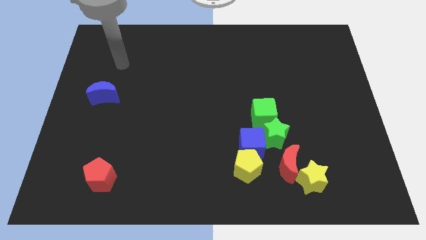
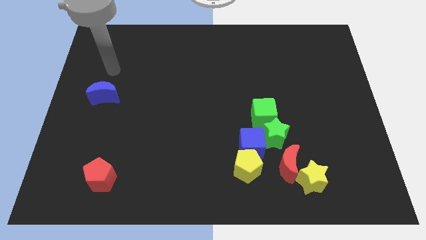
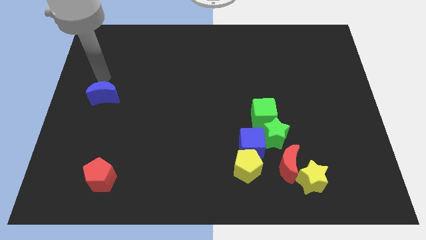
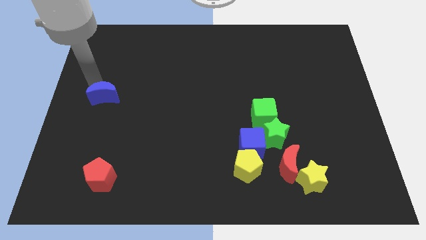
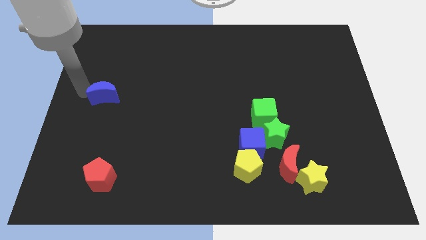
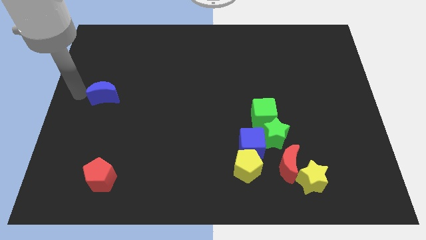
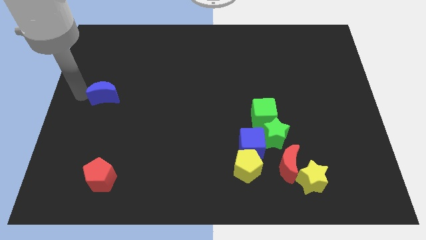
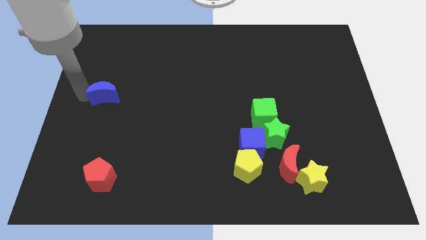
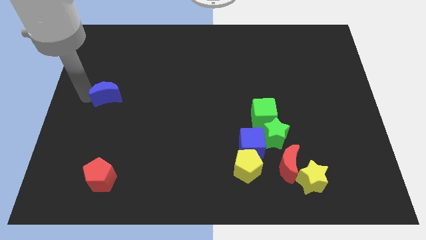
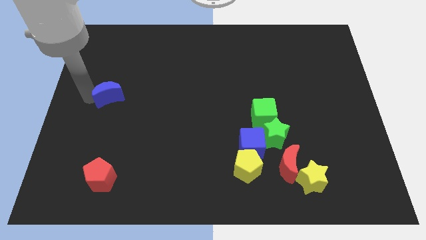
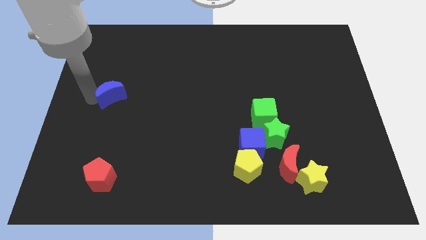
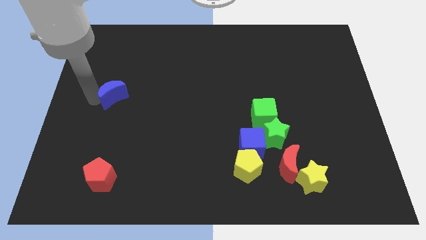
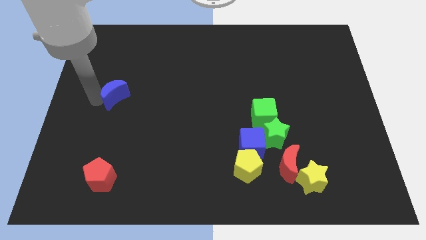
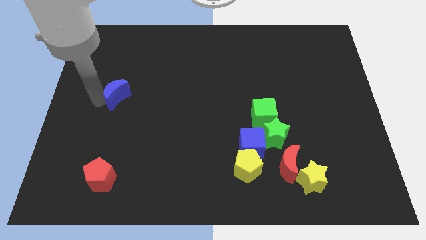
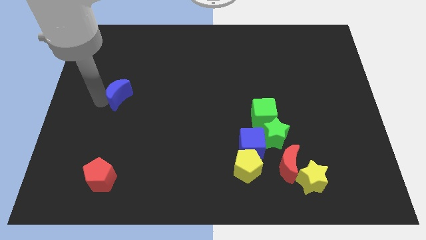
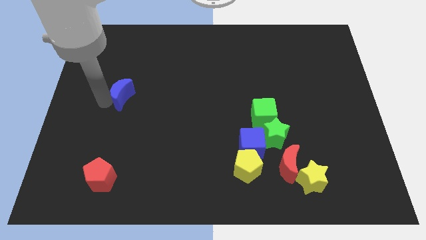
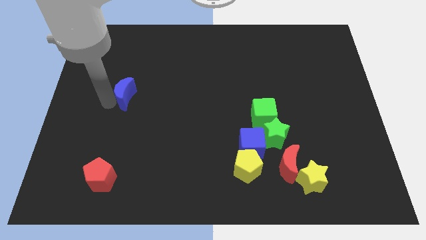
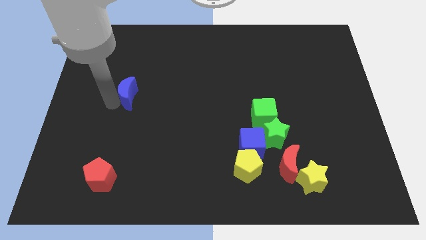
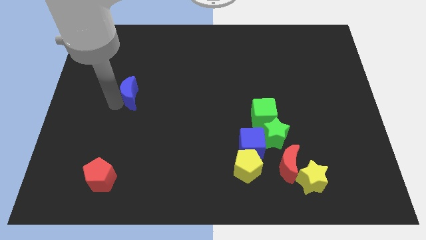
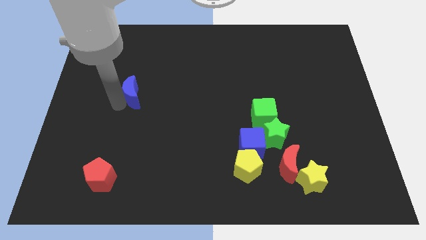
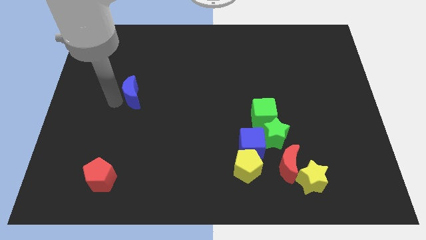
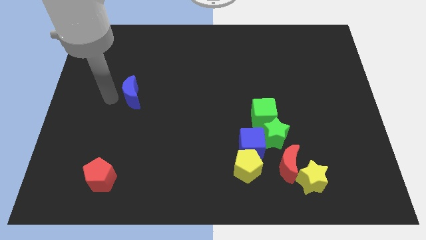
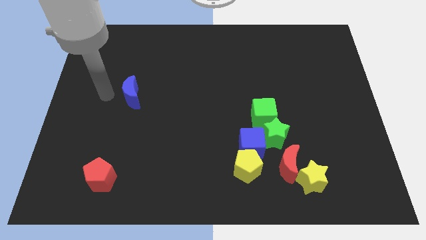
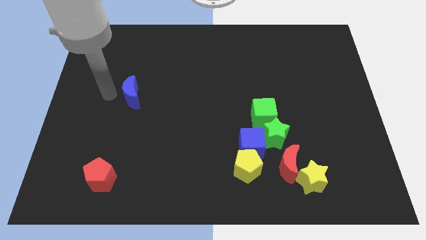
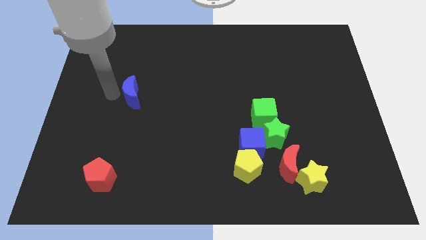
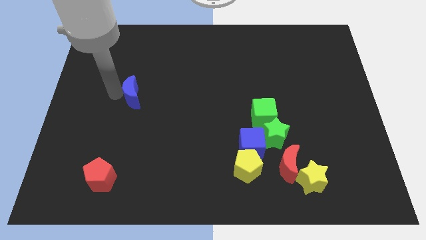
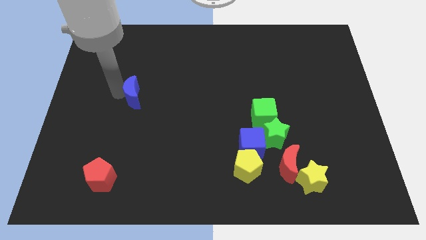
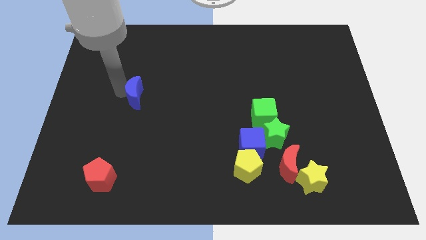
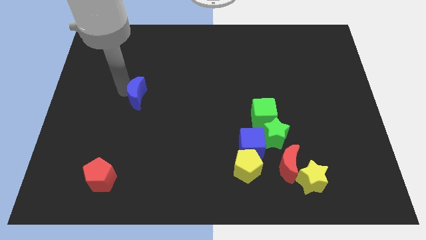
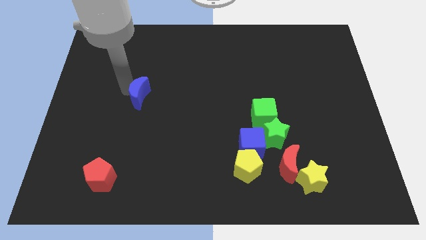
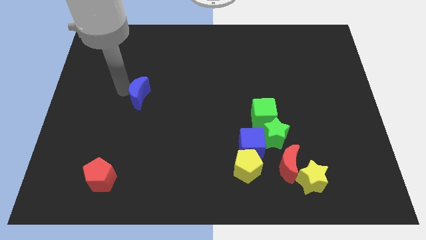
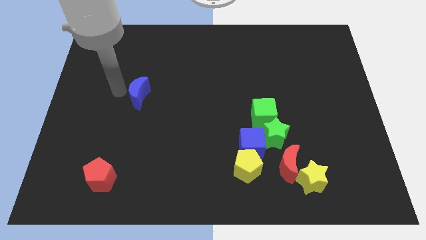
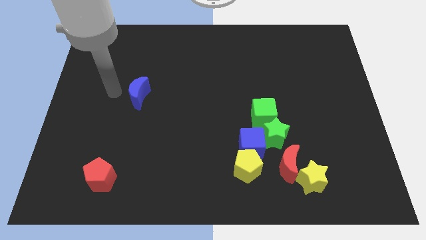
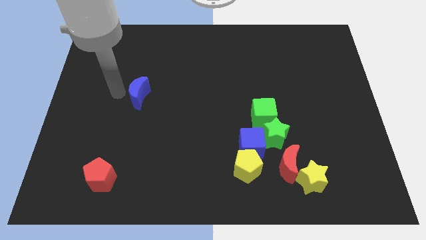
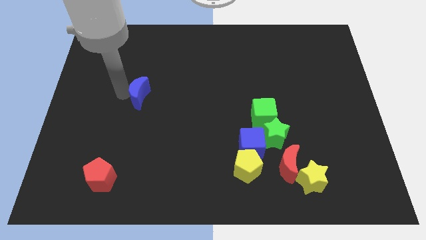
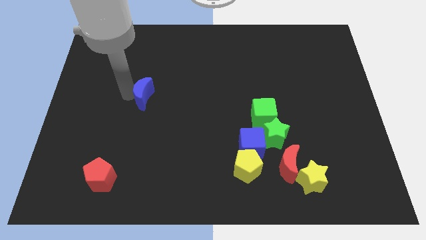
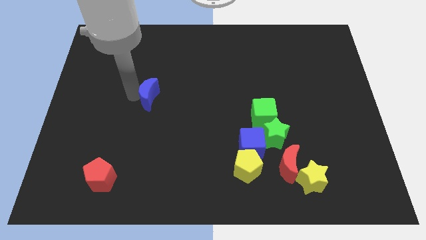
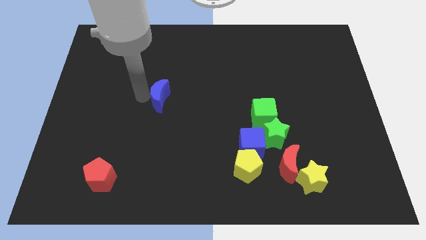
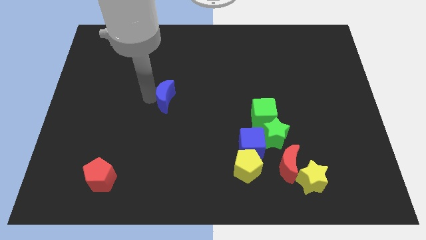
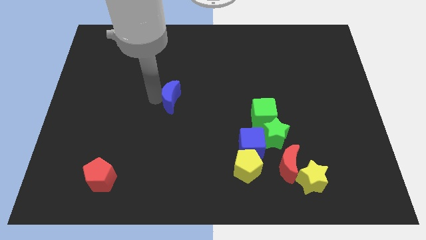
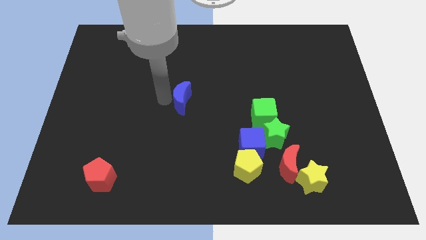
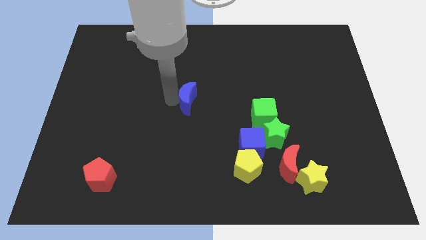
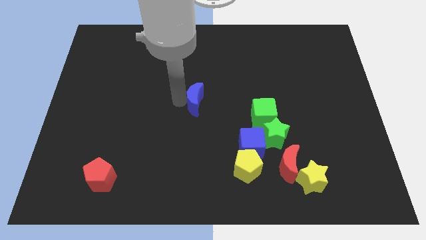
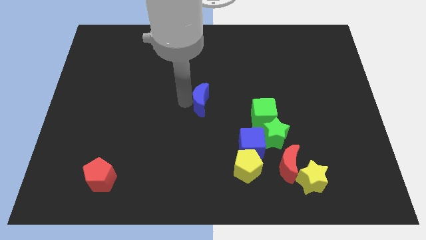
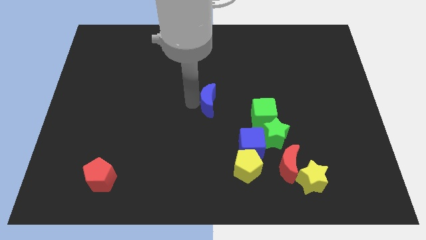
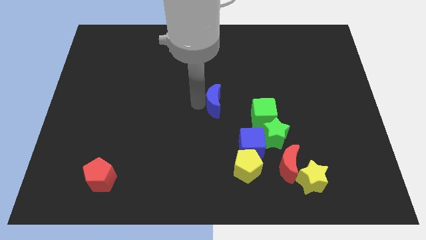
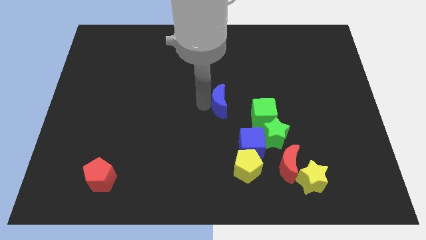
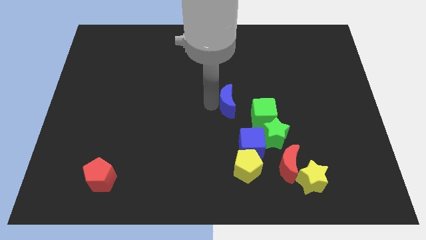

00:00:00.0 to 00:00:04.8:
put the blue moon to the top of the blue cube

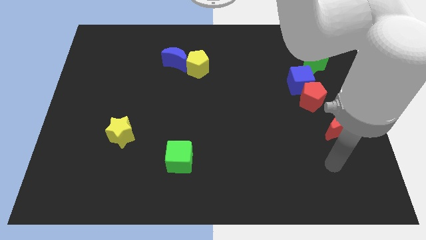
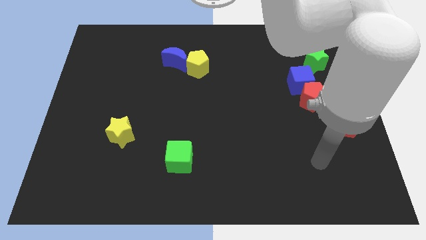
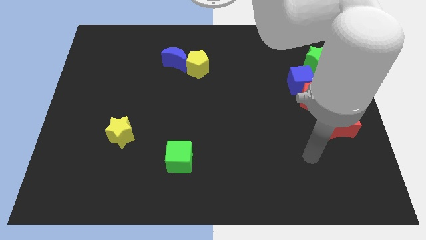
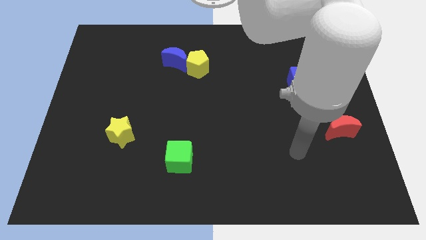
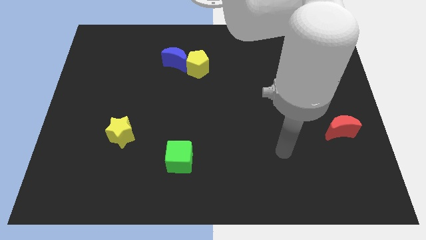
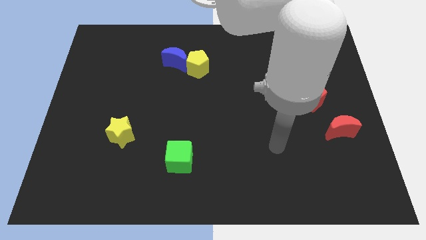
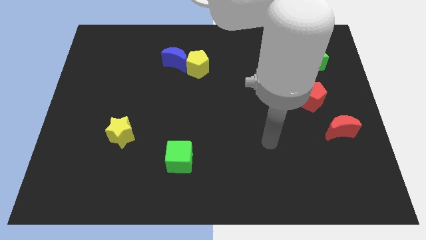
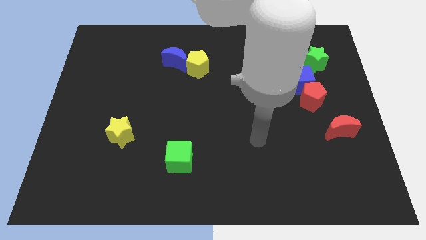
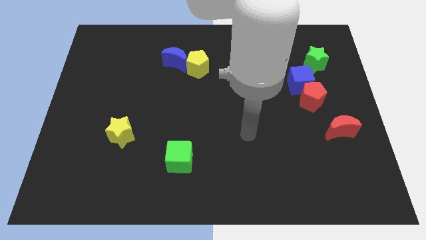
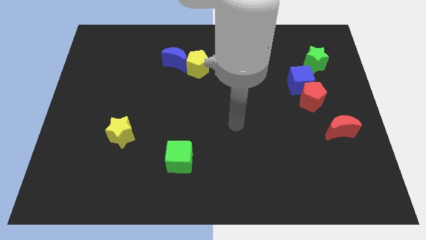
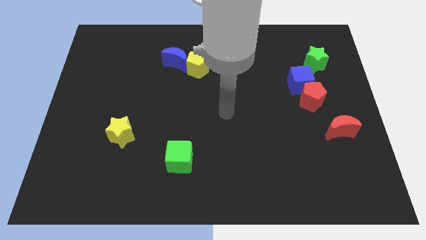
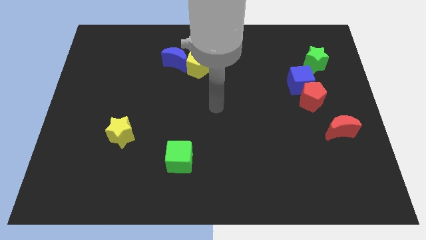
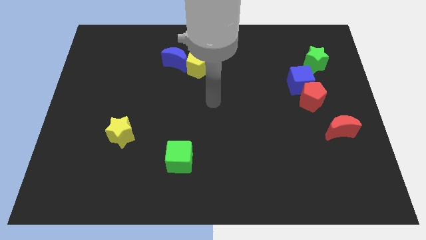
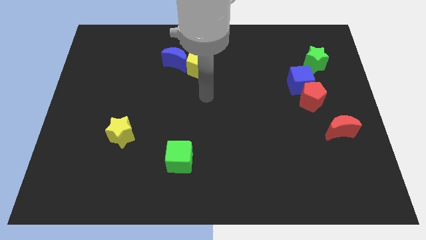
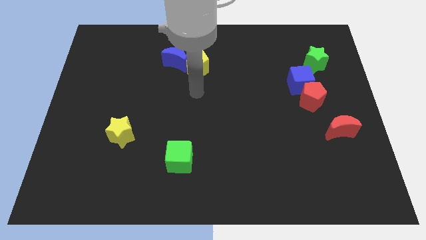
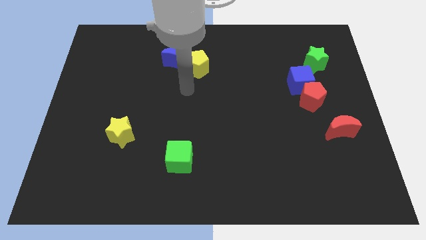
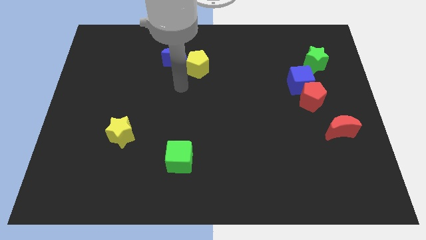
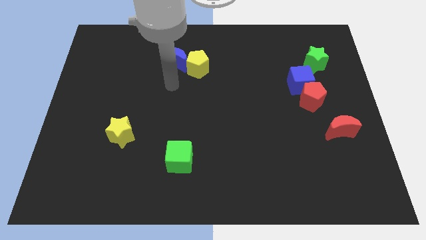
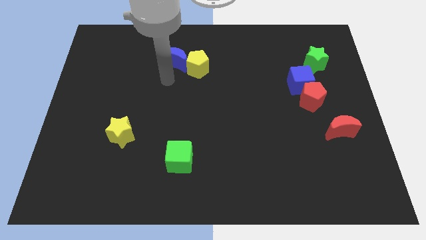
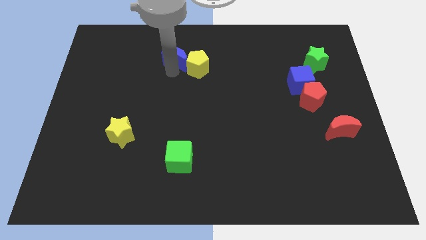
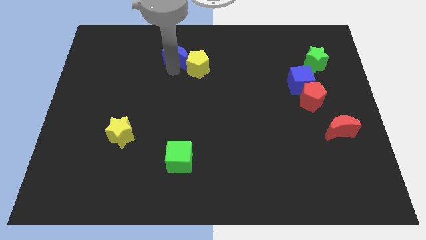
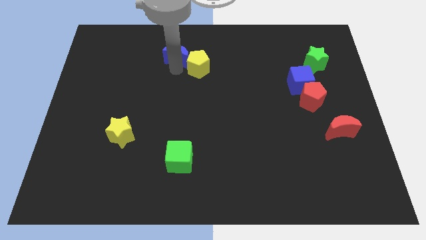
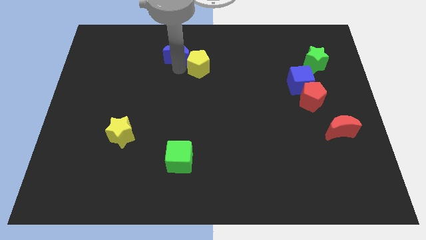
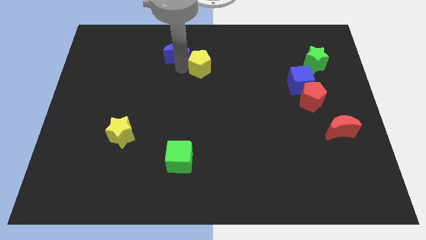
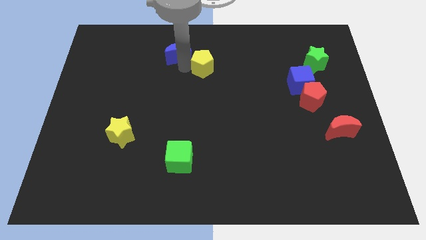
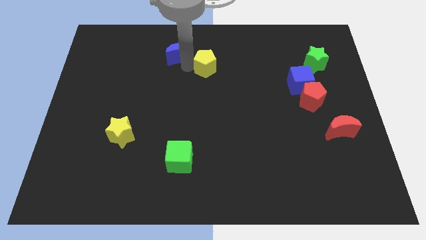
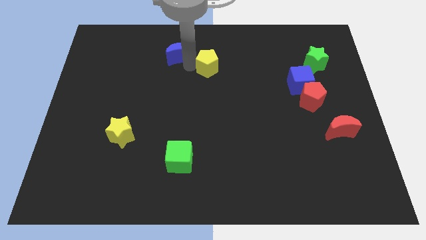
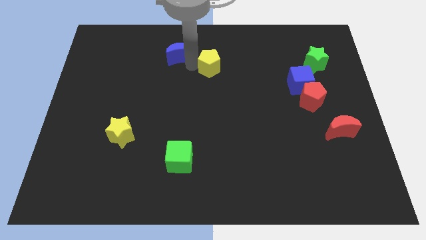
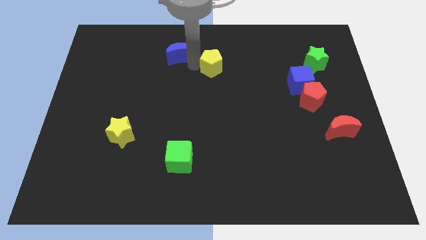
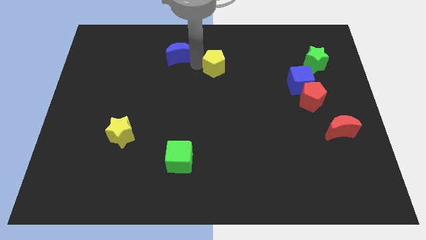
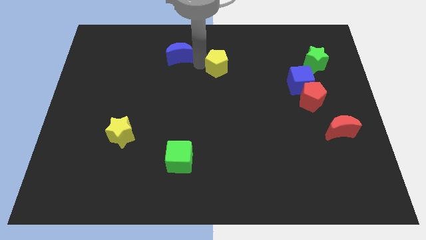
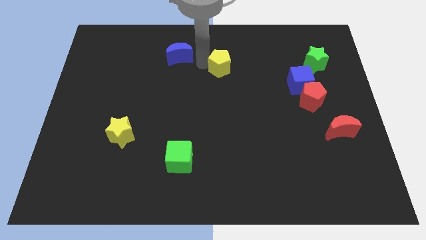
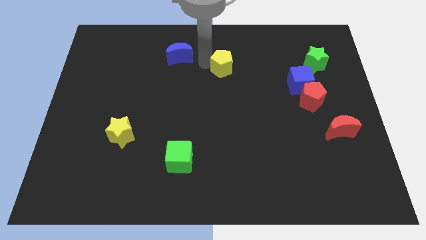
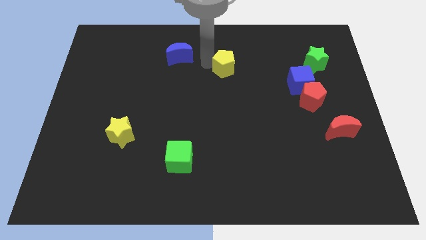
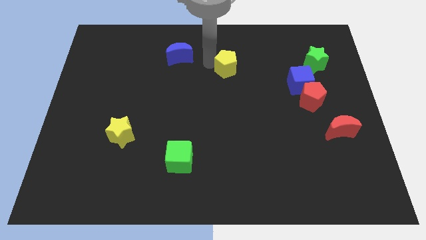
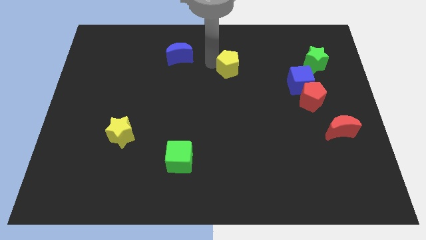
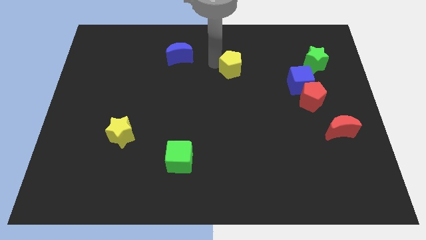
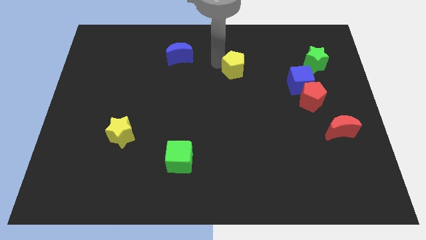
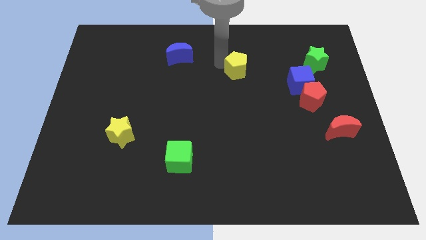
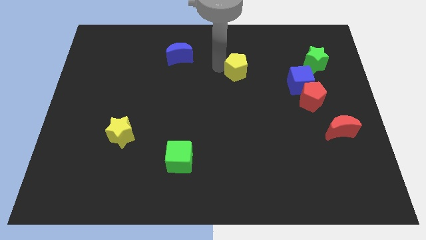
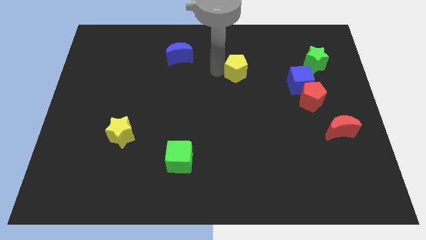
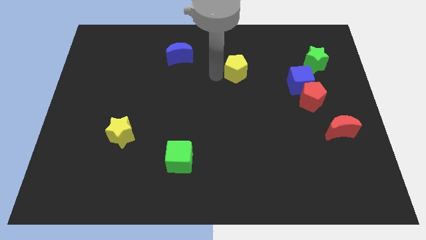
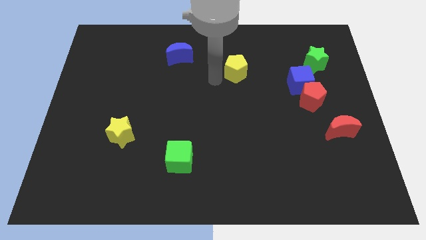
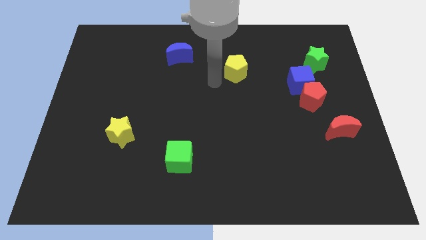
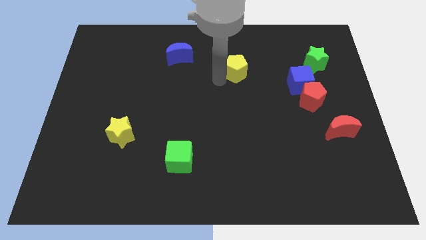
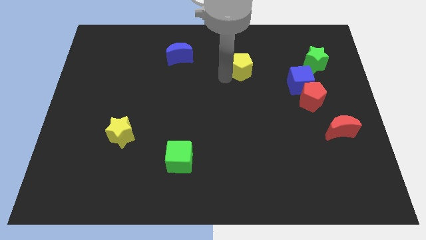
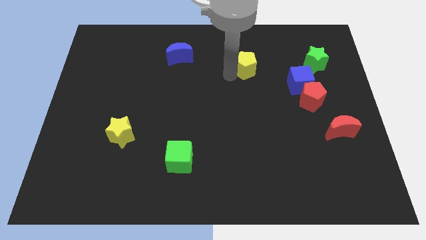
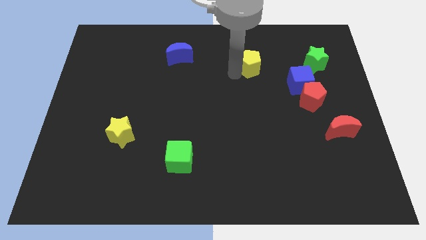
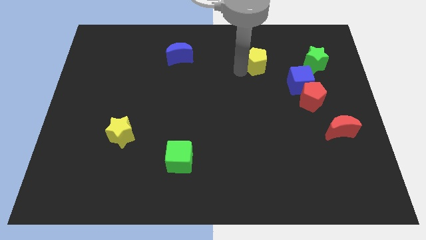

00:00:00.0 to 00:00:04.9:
move the yellow pentagon left of the green star
